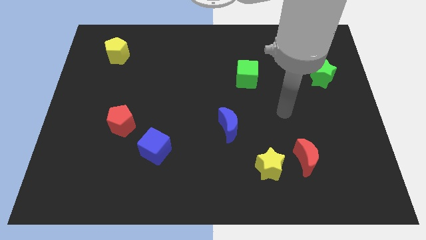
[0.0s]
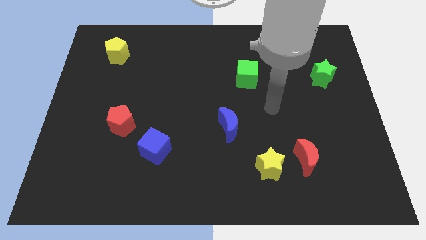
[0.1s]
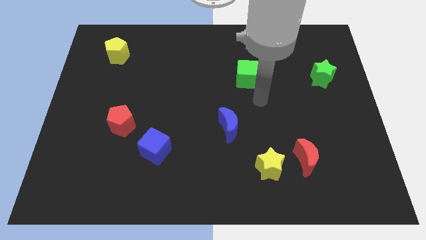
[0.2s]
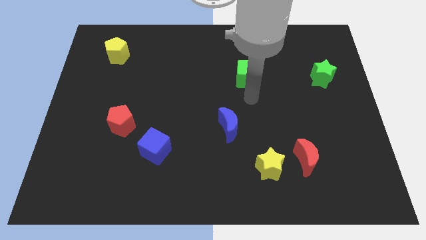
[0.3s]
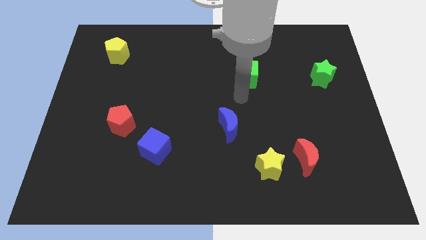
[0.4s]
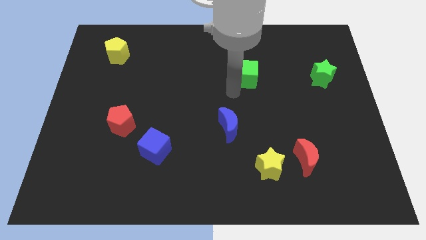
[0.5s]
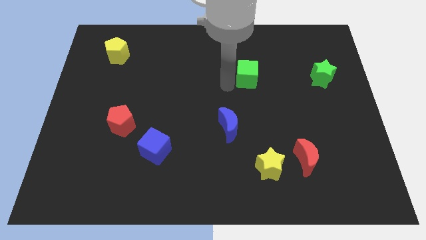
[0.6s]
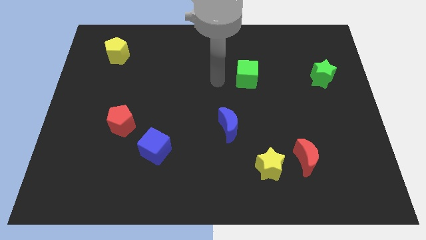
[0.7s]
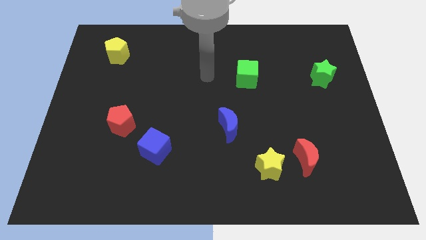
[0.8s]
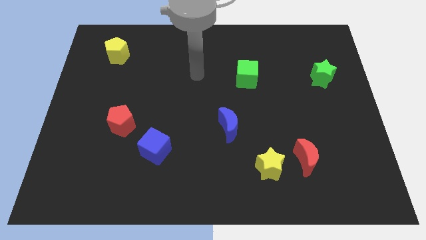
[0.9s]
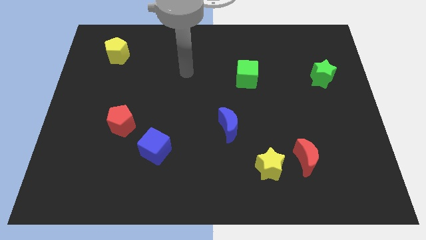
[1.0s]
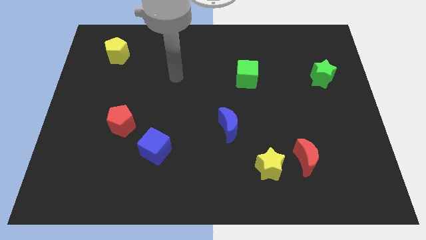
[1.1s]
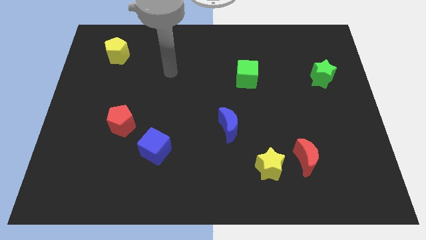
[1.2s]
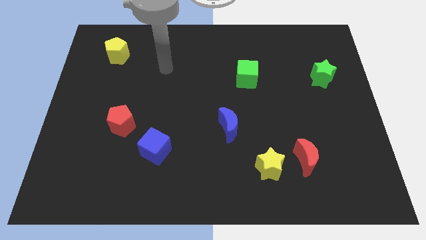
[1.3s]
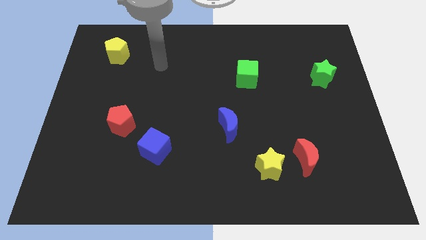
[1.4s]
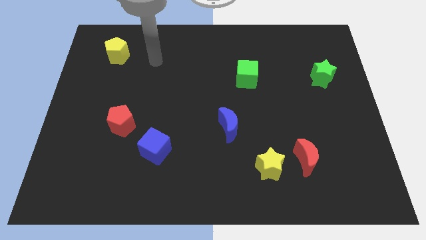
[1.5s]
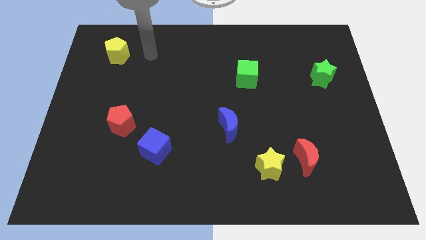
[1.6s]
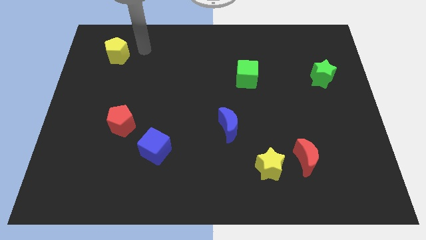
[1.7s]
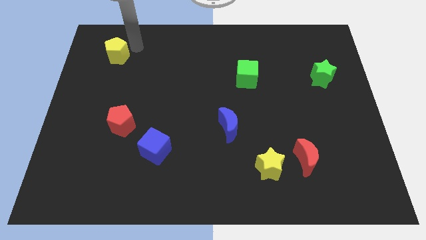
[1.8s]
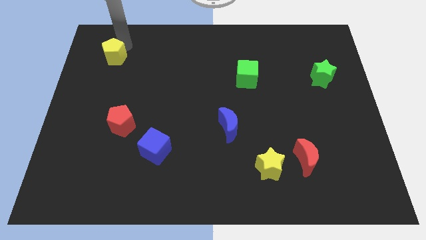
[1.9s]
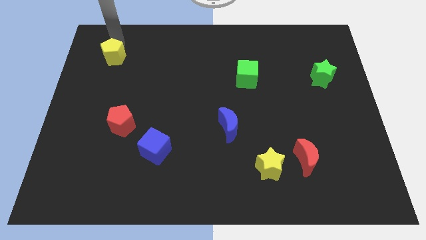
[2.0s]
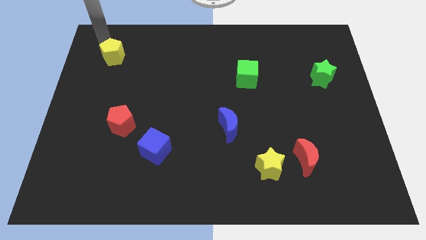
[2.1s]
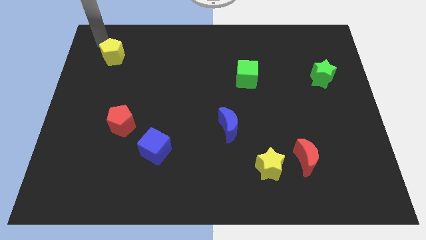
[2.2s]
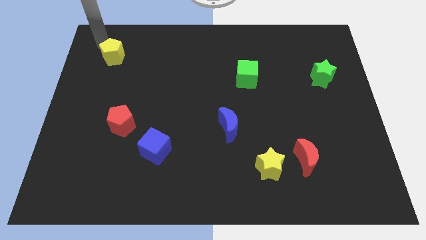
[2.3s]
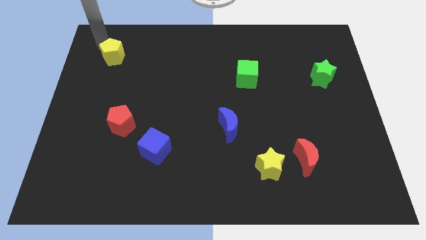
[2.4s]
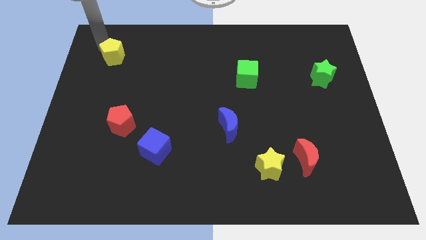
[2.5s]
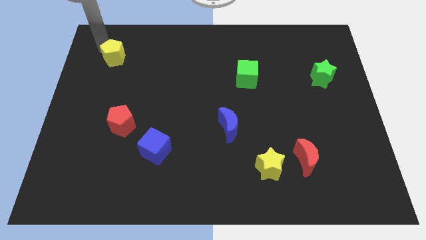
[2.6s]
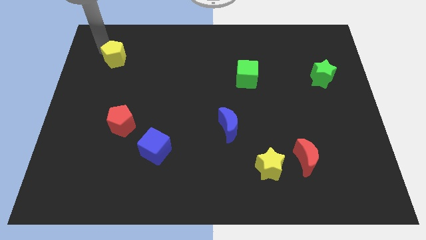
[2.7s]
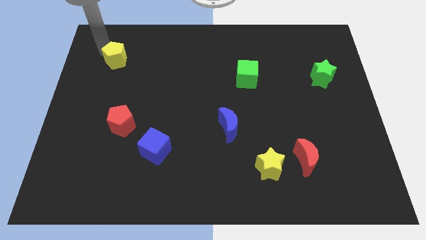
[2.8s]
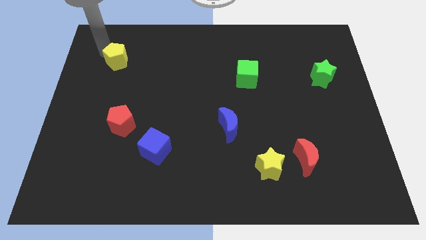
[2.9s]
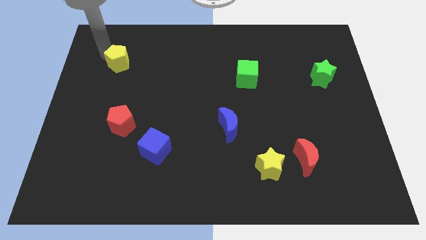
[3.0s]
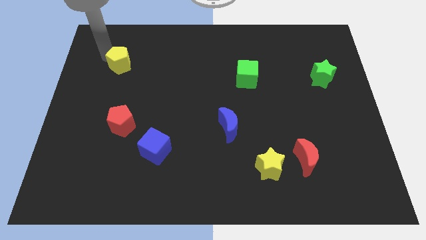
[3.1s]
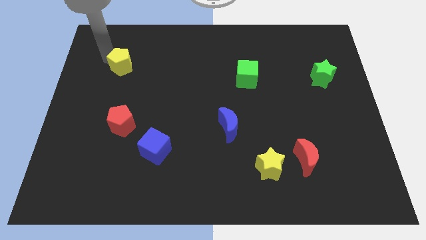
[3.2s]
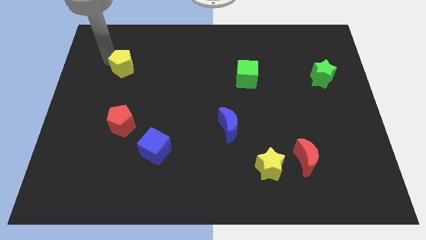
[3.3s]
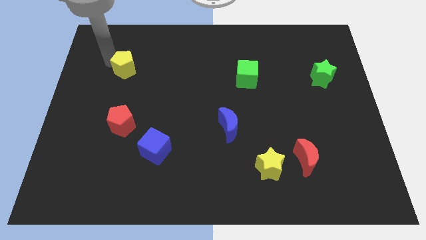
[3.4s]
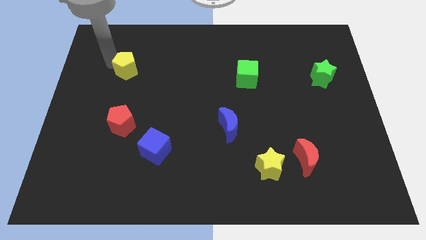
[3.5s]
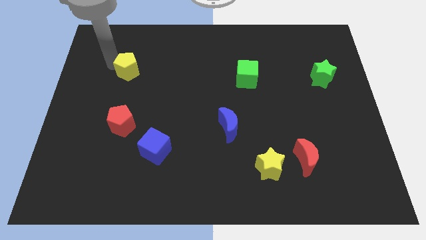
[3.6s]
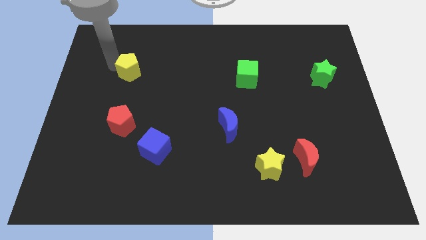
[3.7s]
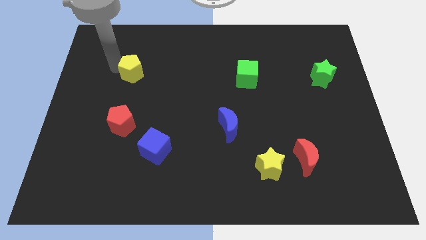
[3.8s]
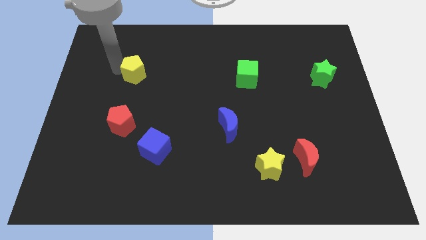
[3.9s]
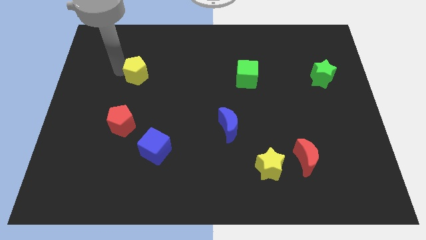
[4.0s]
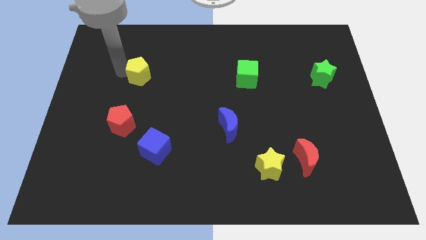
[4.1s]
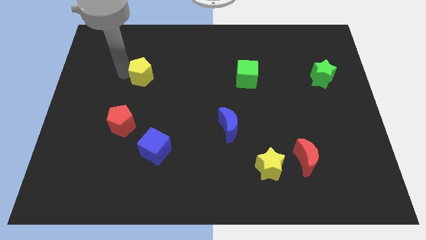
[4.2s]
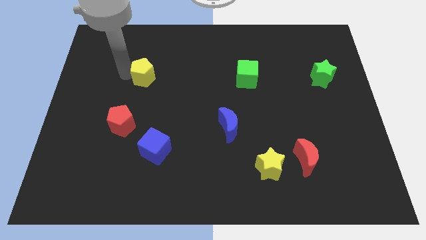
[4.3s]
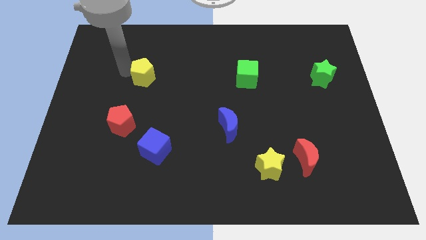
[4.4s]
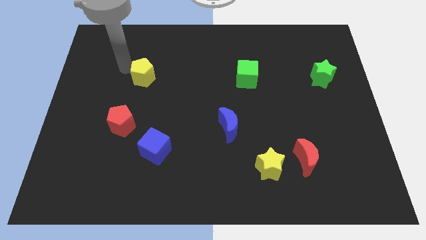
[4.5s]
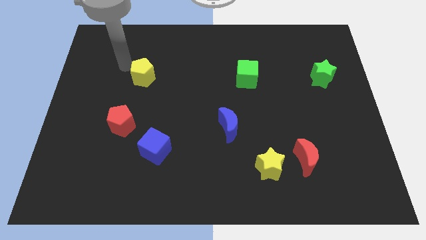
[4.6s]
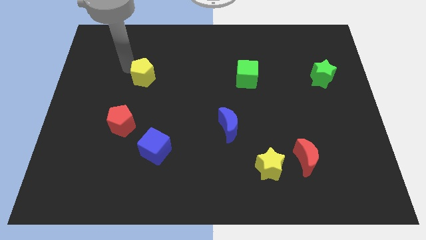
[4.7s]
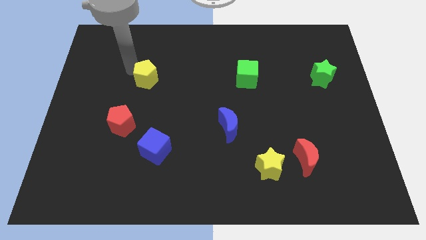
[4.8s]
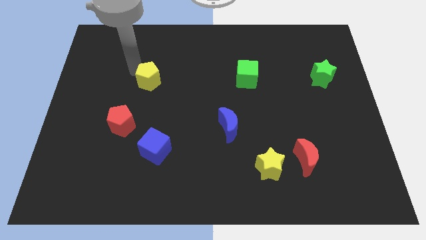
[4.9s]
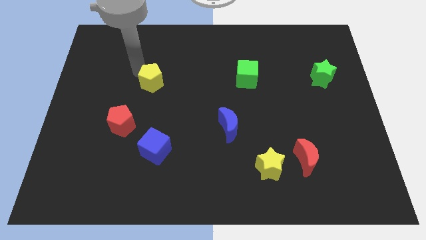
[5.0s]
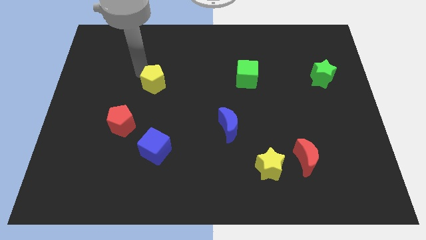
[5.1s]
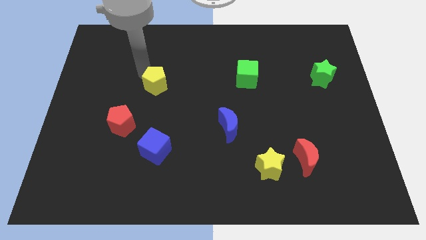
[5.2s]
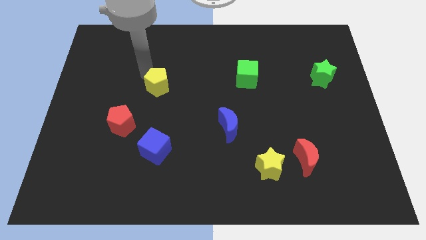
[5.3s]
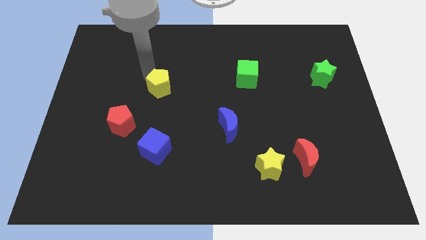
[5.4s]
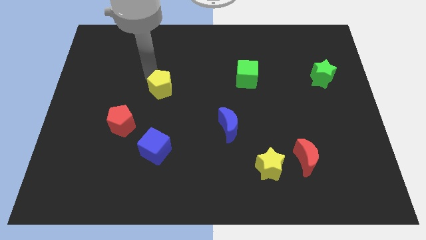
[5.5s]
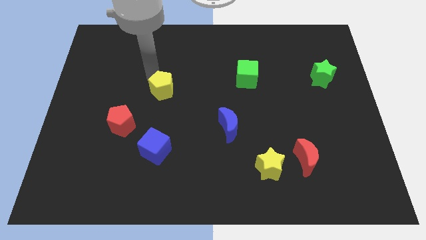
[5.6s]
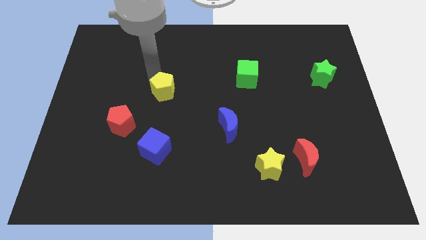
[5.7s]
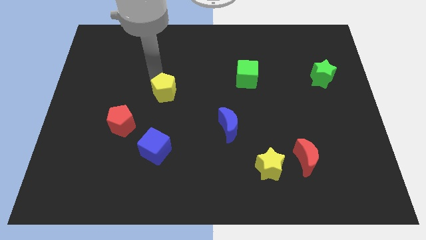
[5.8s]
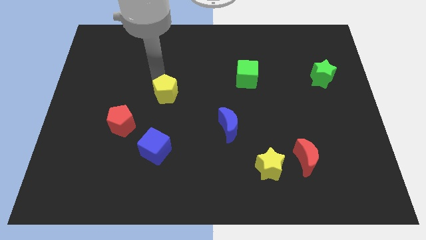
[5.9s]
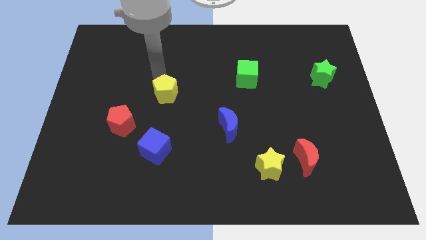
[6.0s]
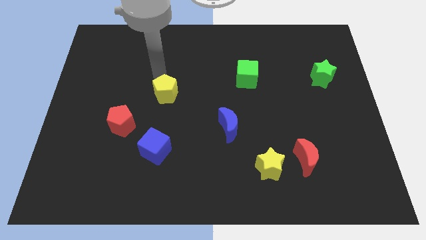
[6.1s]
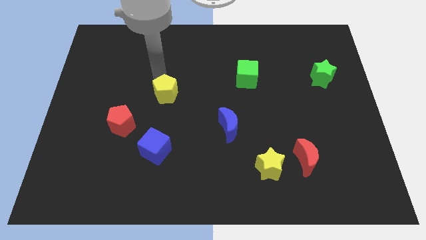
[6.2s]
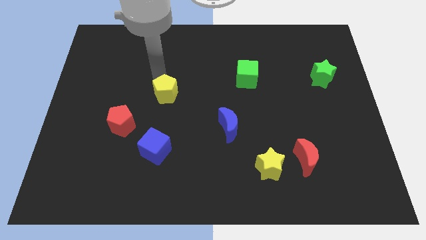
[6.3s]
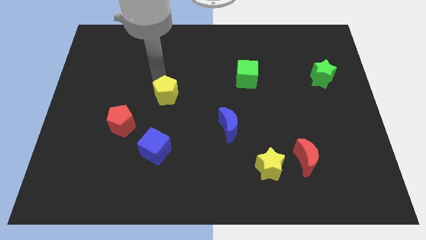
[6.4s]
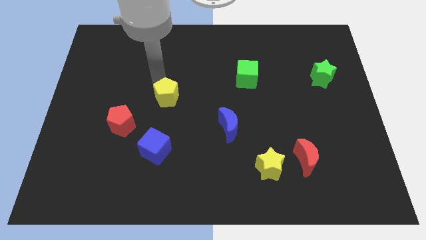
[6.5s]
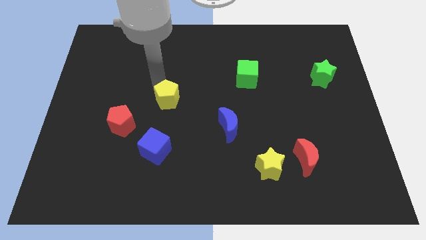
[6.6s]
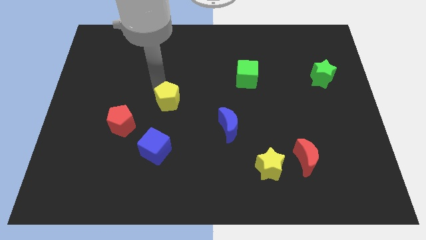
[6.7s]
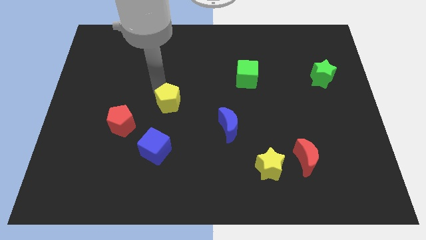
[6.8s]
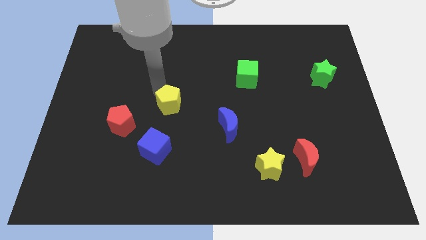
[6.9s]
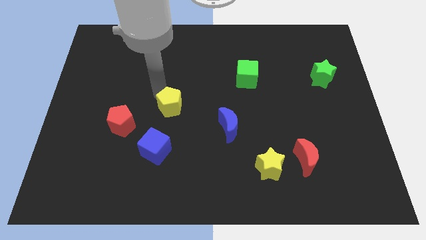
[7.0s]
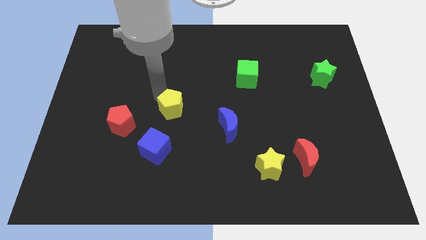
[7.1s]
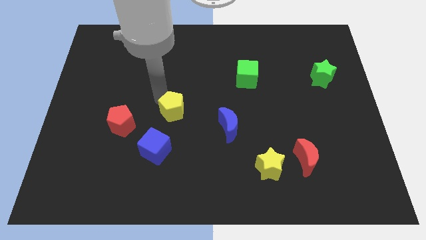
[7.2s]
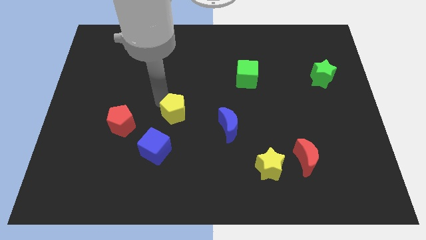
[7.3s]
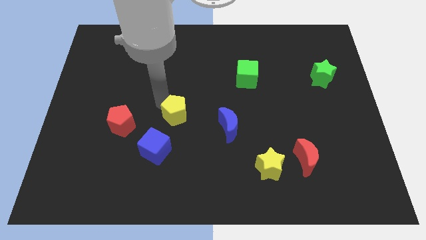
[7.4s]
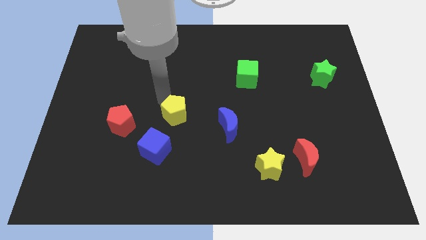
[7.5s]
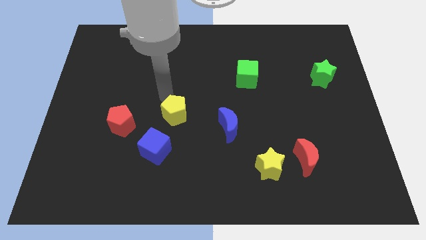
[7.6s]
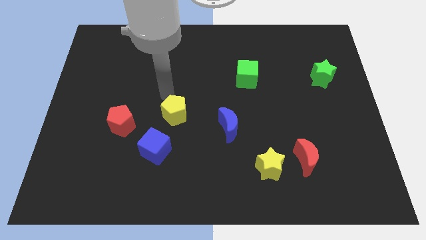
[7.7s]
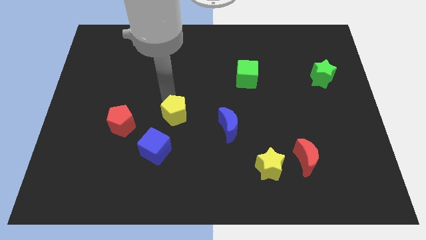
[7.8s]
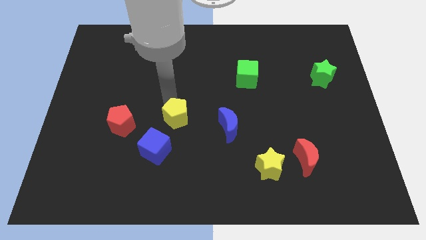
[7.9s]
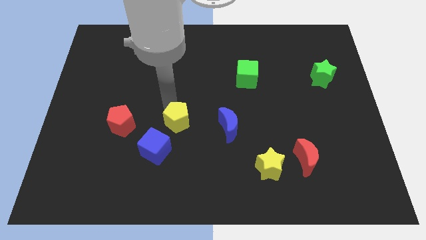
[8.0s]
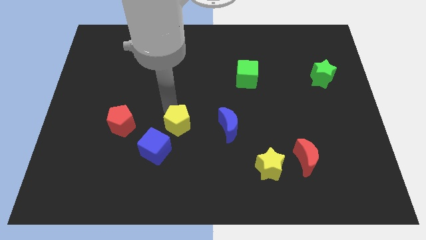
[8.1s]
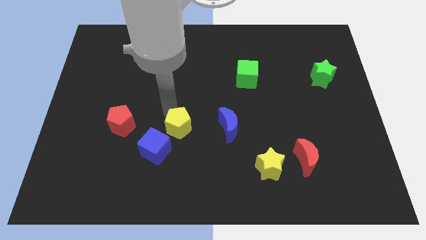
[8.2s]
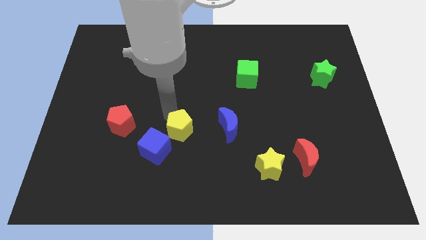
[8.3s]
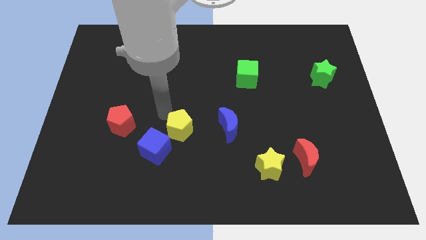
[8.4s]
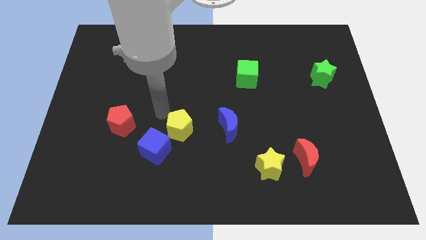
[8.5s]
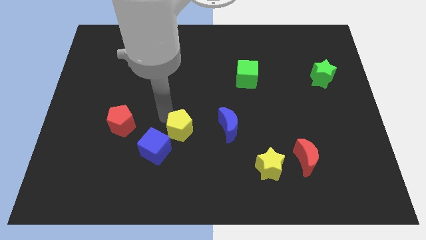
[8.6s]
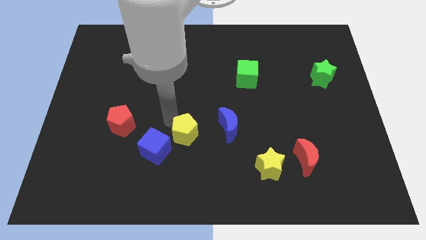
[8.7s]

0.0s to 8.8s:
push the yellow pentagon to the right side of the blue cube
